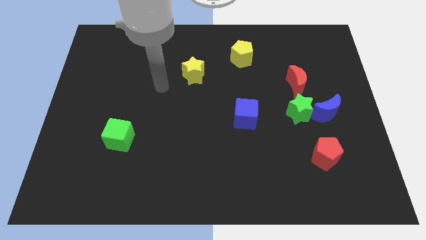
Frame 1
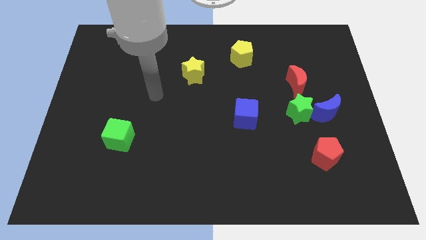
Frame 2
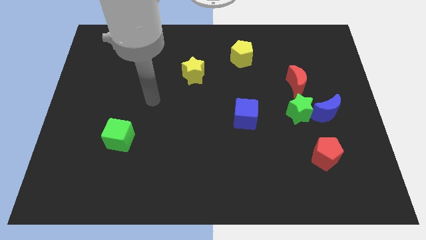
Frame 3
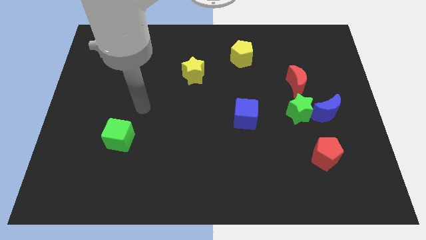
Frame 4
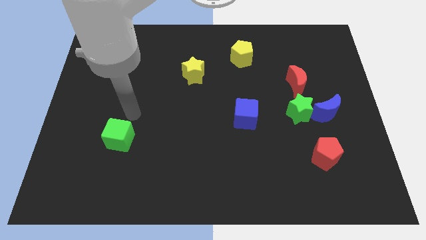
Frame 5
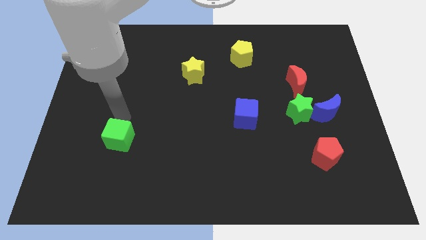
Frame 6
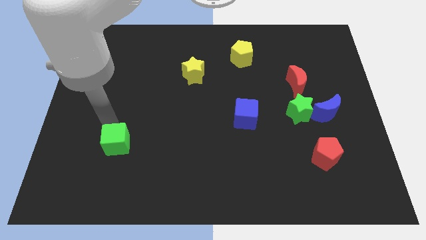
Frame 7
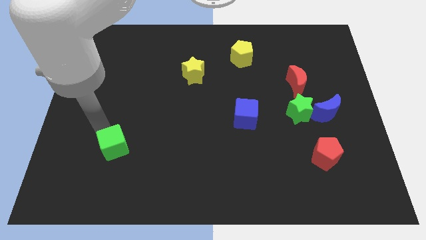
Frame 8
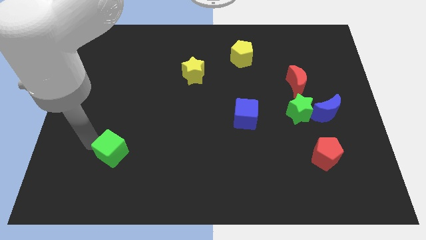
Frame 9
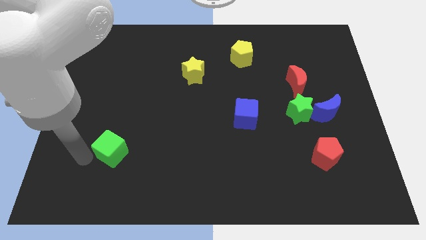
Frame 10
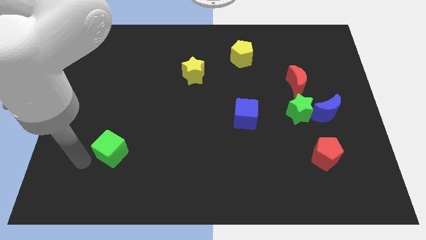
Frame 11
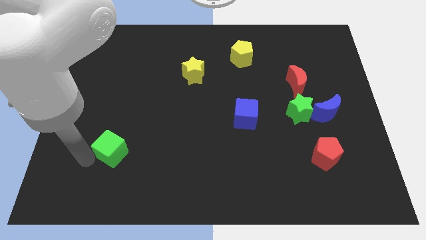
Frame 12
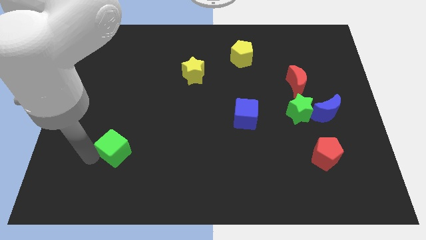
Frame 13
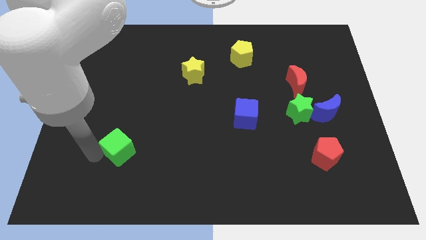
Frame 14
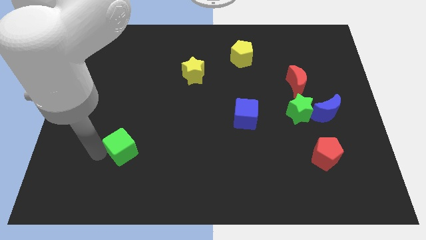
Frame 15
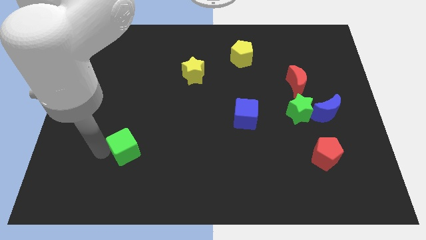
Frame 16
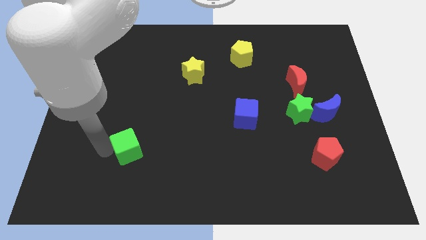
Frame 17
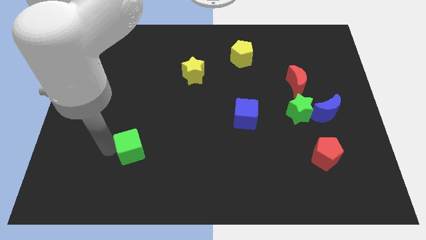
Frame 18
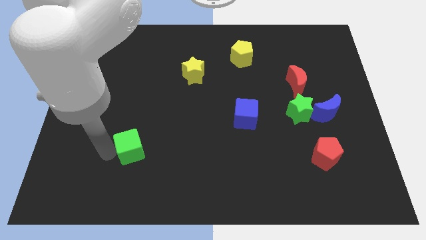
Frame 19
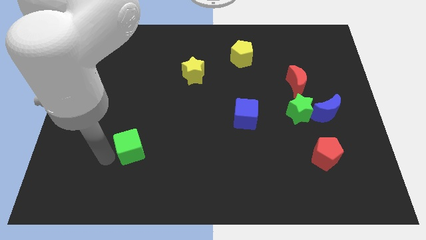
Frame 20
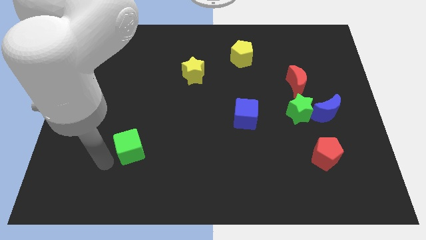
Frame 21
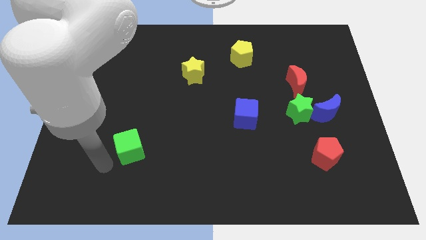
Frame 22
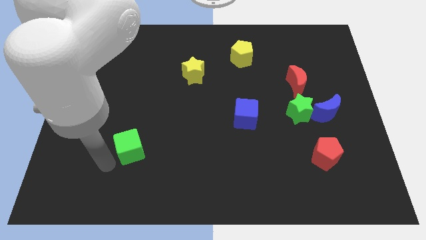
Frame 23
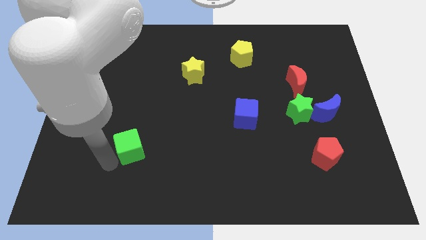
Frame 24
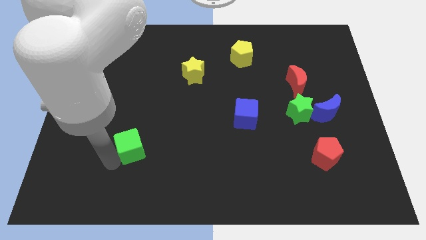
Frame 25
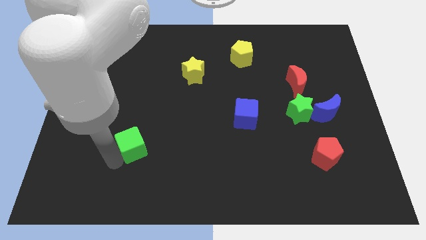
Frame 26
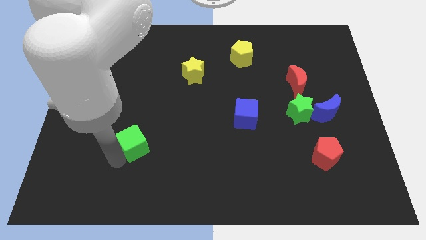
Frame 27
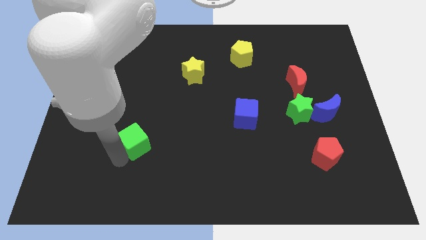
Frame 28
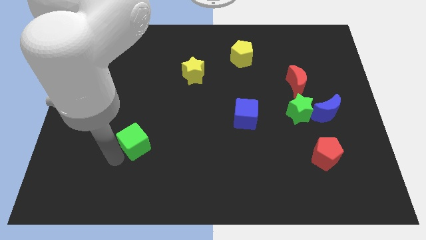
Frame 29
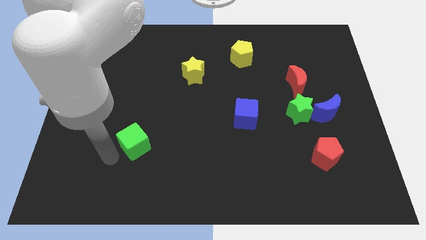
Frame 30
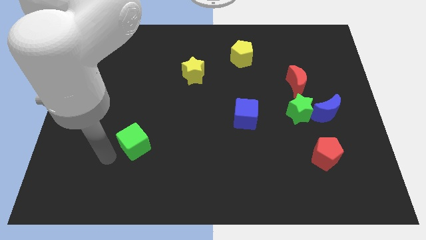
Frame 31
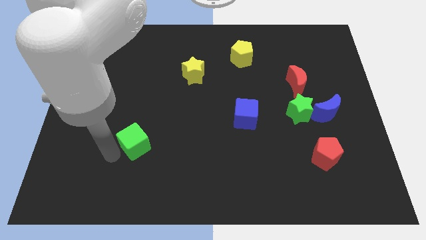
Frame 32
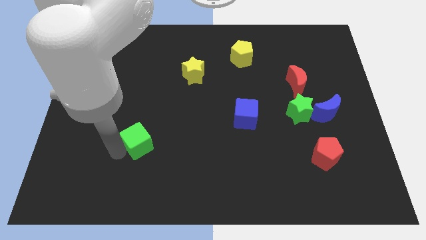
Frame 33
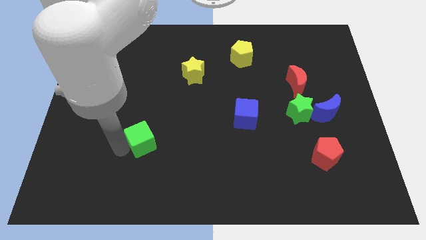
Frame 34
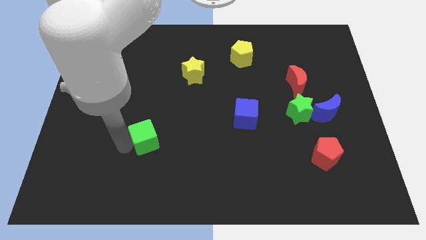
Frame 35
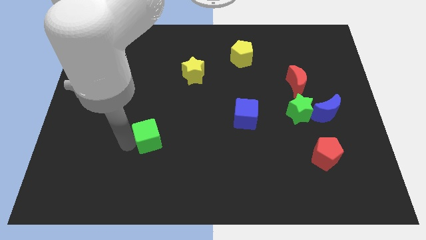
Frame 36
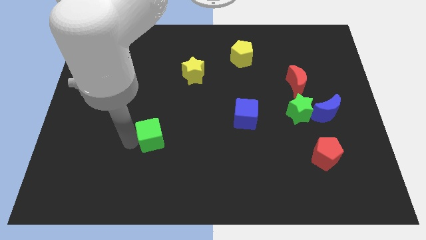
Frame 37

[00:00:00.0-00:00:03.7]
slide the green cube right slightly

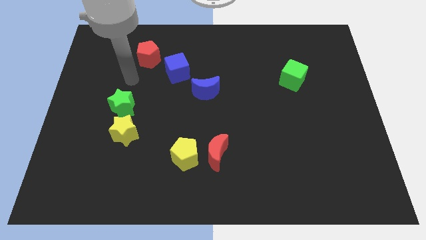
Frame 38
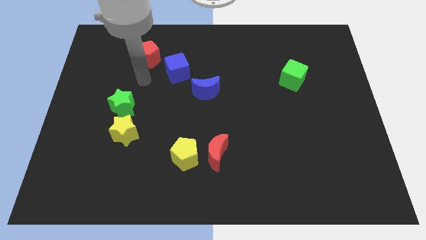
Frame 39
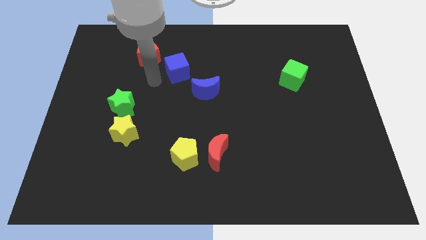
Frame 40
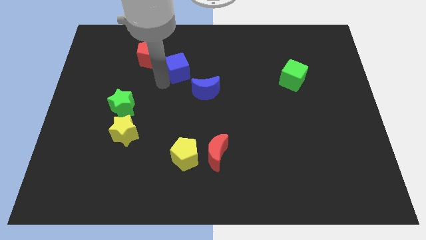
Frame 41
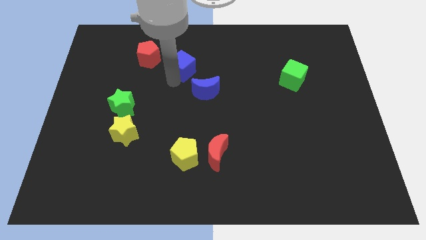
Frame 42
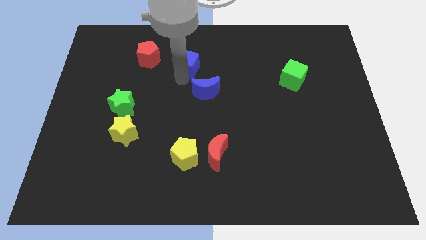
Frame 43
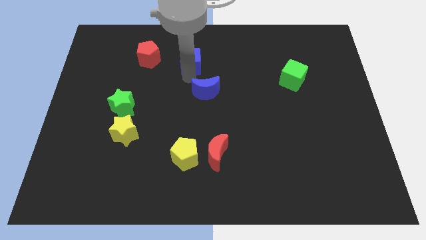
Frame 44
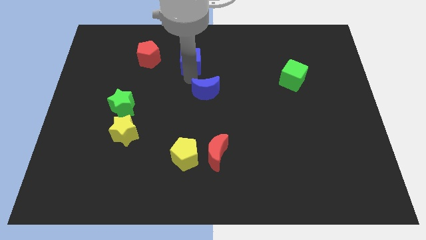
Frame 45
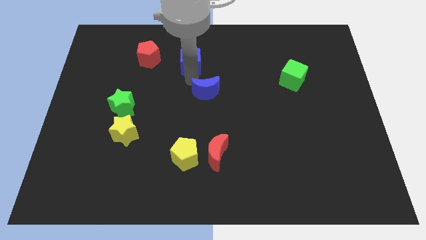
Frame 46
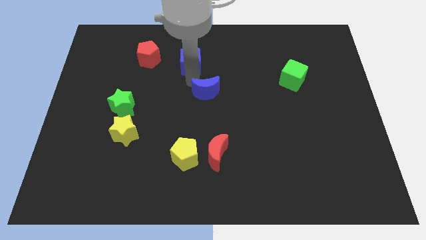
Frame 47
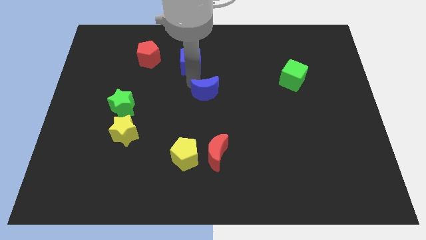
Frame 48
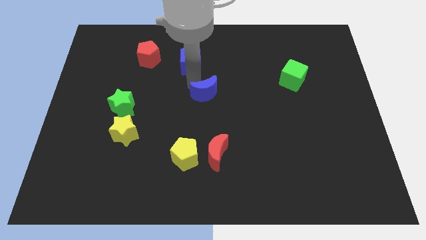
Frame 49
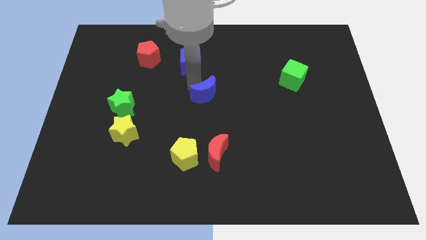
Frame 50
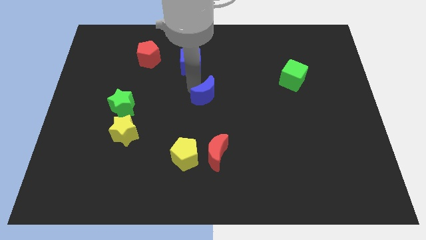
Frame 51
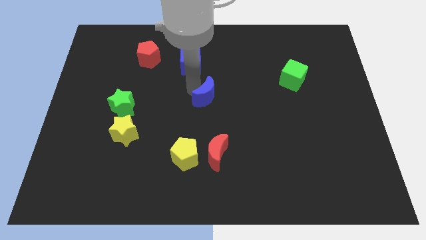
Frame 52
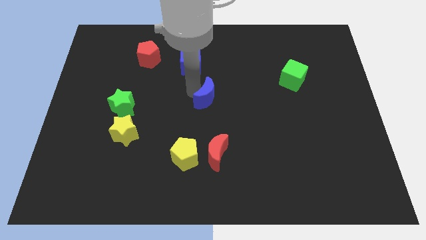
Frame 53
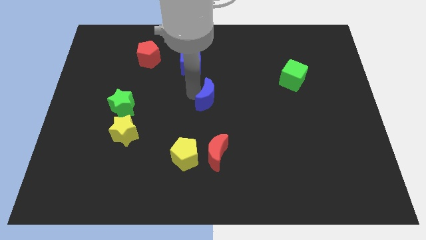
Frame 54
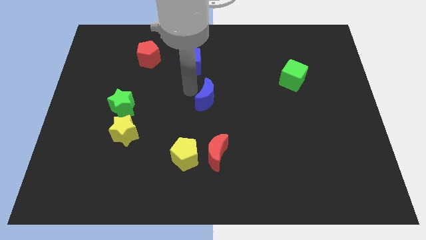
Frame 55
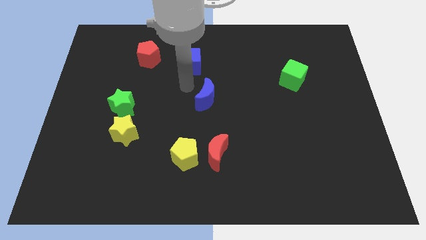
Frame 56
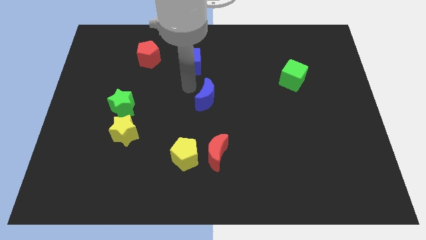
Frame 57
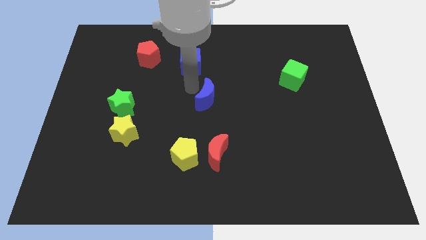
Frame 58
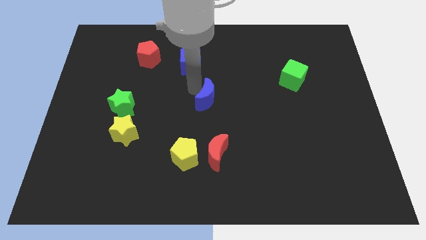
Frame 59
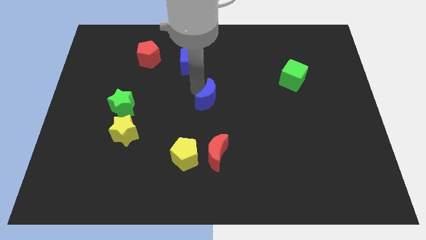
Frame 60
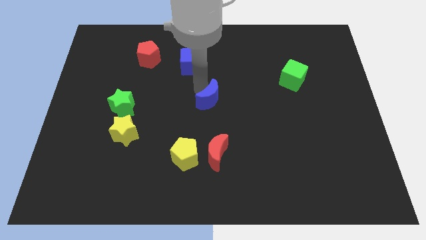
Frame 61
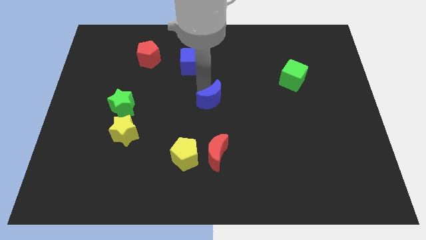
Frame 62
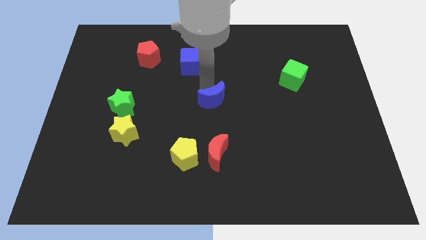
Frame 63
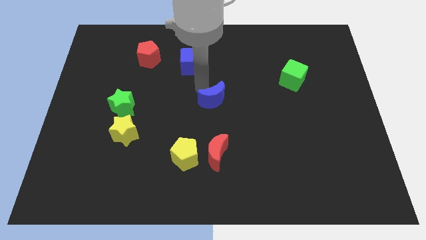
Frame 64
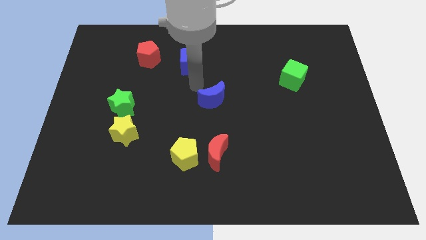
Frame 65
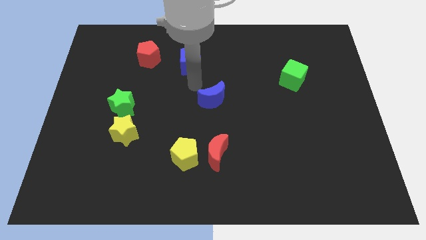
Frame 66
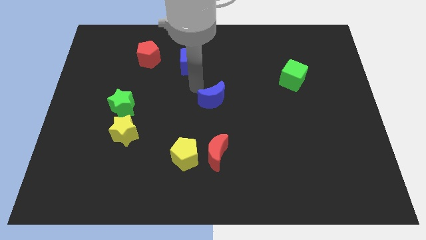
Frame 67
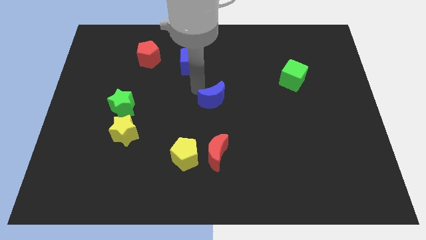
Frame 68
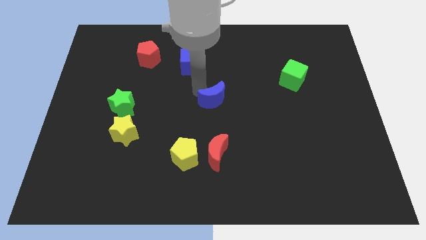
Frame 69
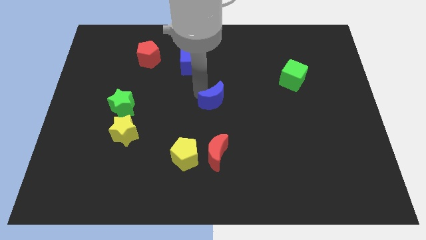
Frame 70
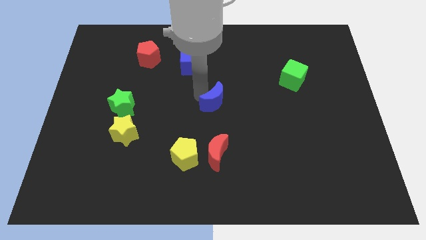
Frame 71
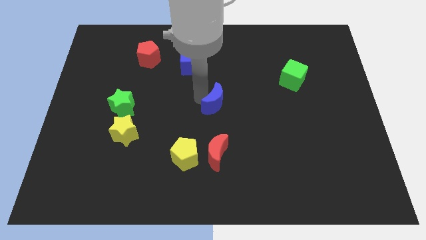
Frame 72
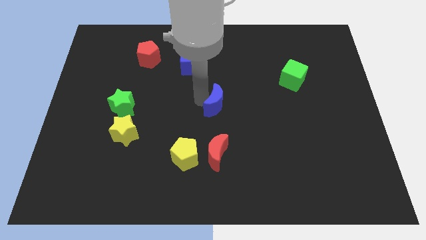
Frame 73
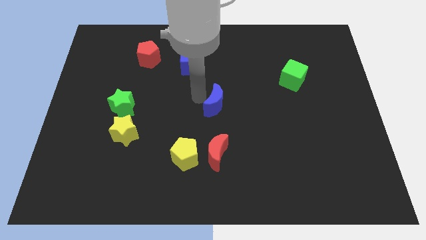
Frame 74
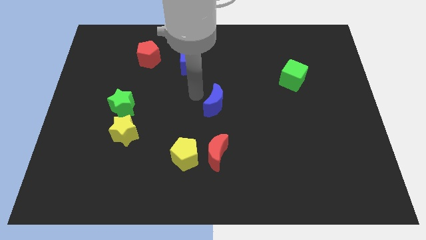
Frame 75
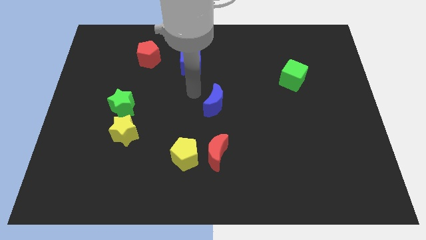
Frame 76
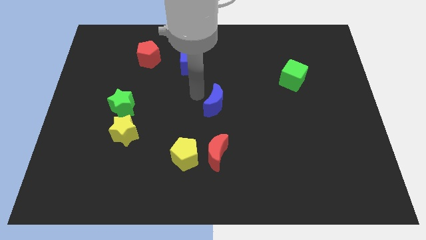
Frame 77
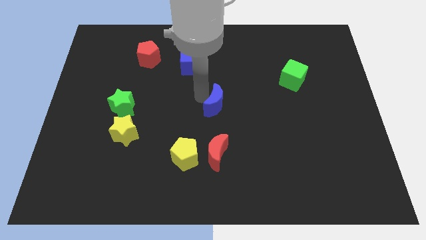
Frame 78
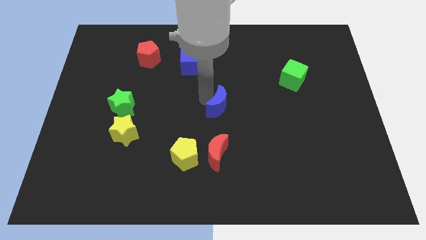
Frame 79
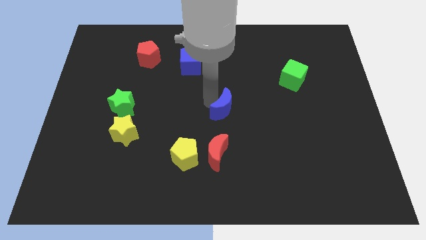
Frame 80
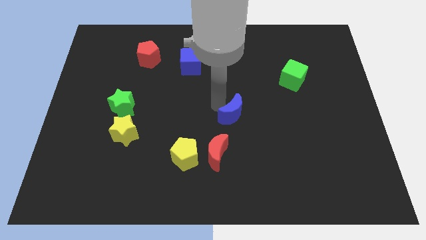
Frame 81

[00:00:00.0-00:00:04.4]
push the blue moon somewhat downwards and then right

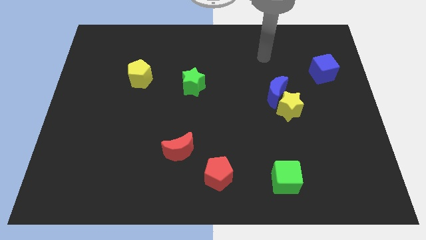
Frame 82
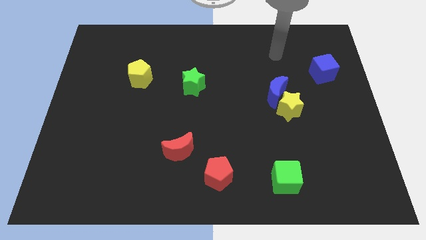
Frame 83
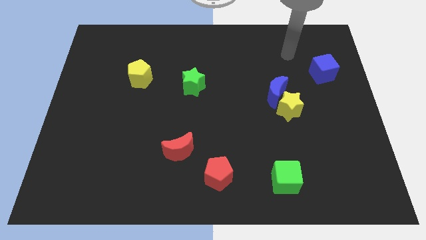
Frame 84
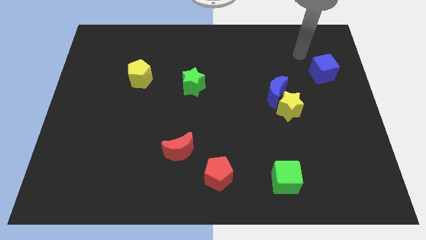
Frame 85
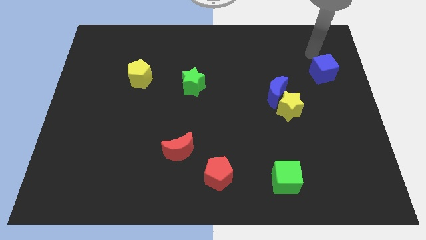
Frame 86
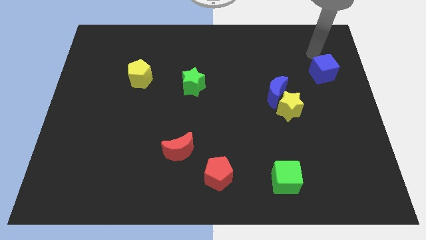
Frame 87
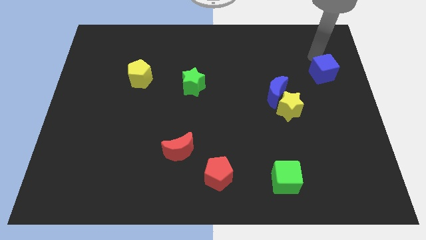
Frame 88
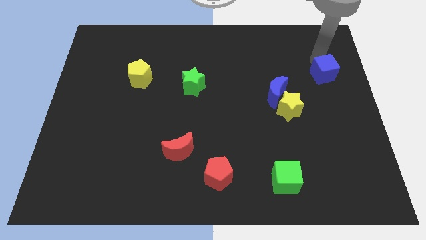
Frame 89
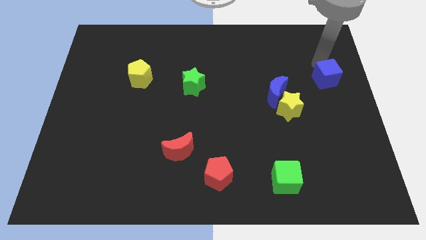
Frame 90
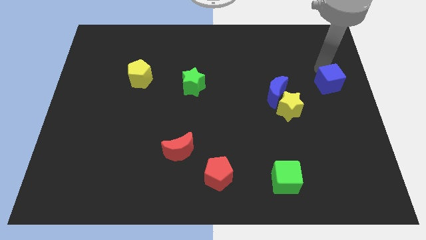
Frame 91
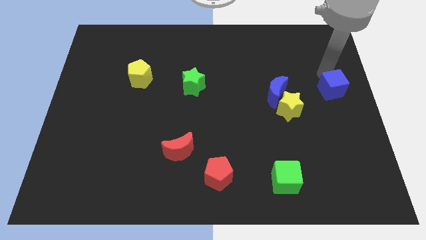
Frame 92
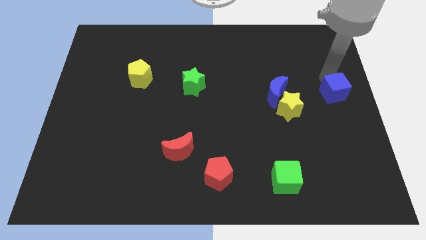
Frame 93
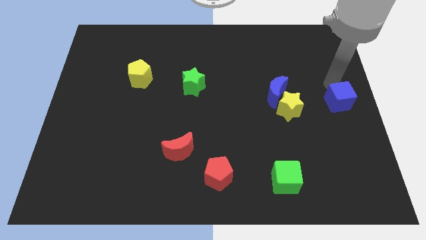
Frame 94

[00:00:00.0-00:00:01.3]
slightly slide the blue cube down
